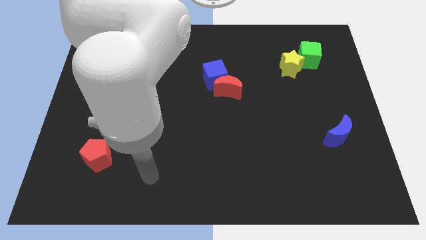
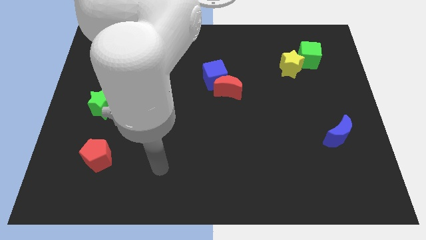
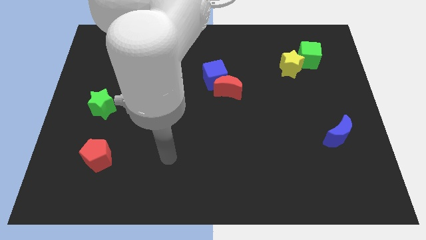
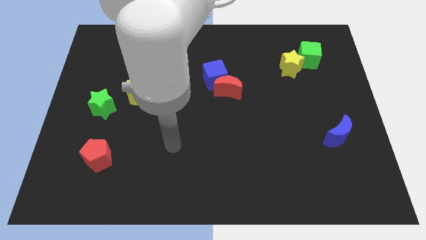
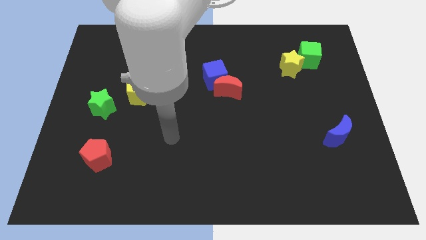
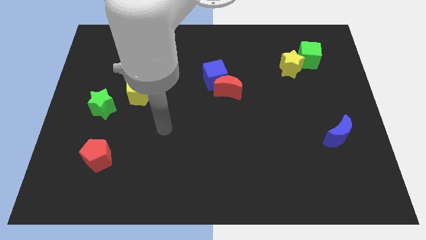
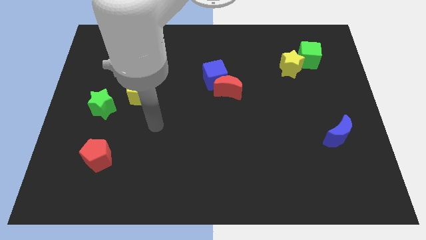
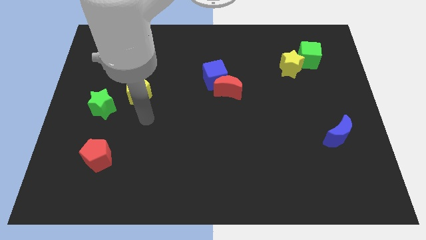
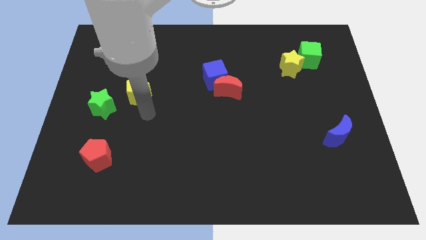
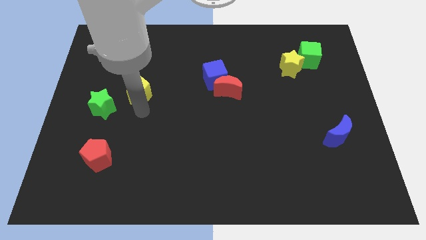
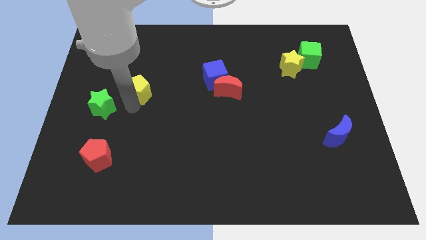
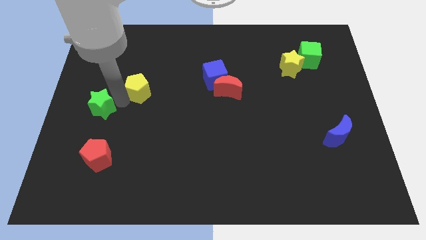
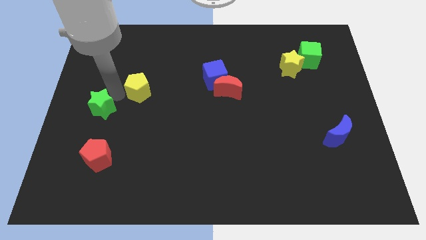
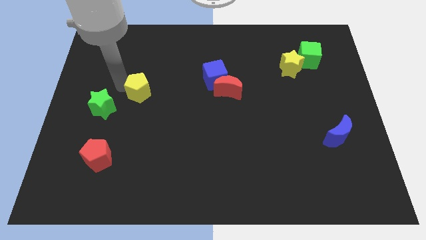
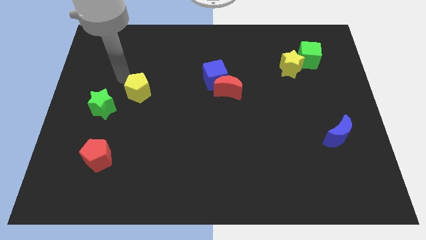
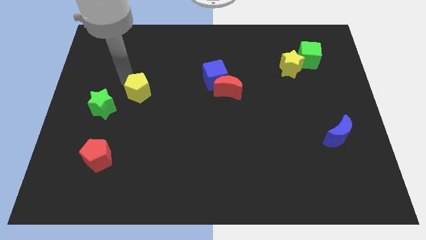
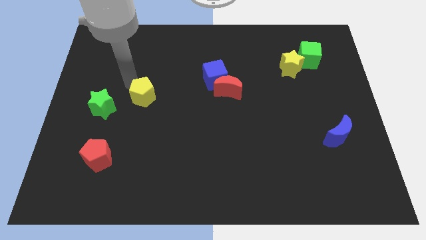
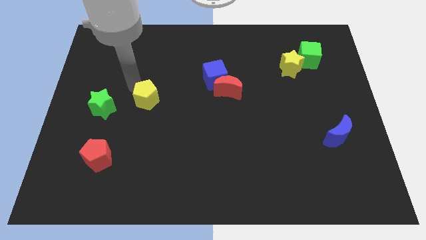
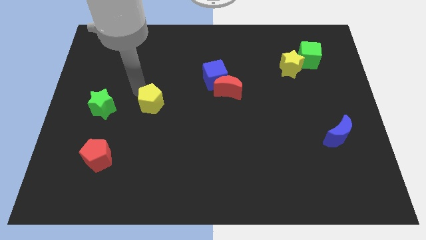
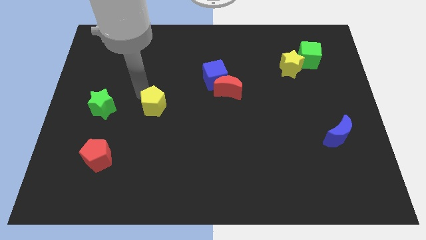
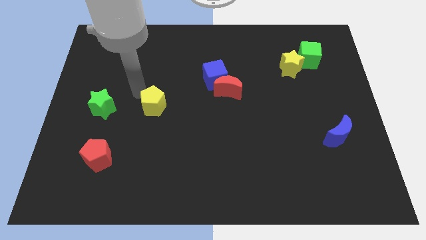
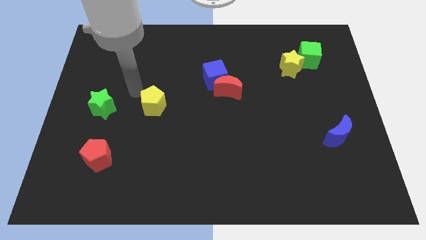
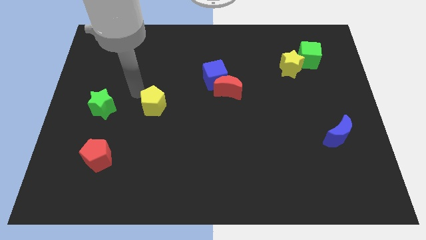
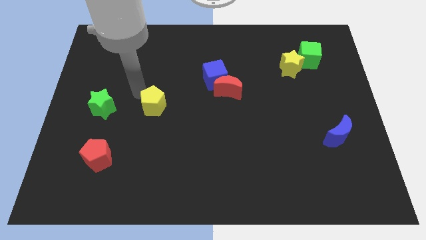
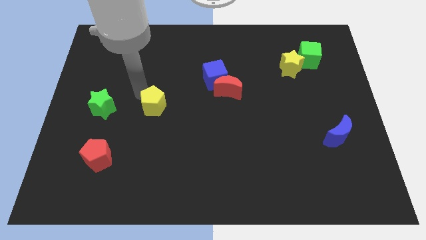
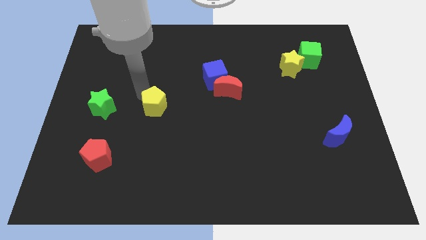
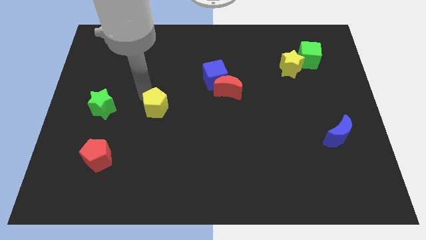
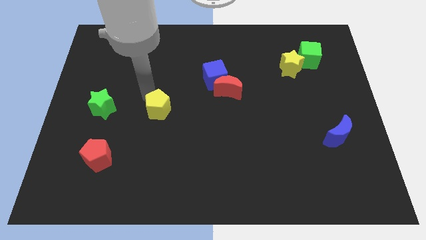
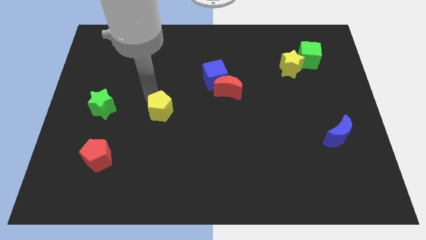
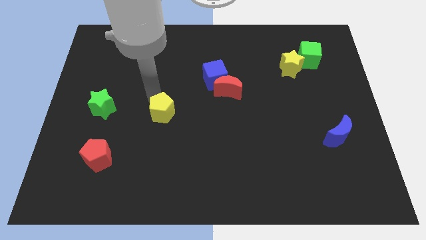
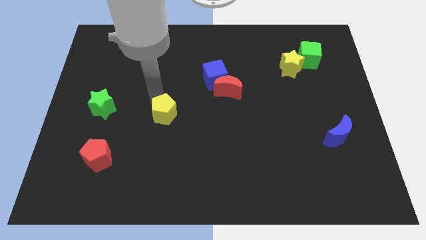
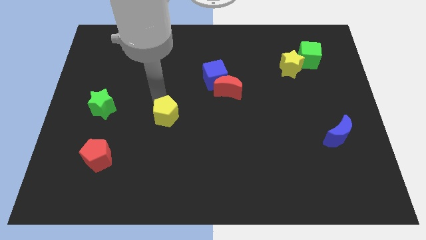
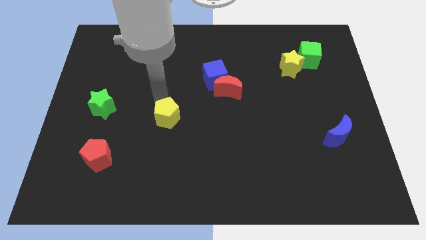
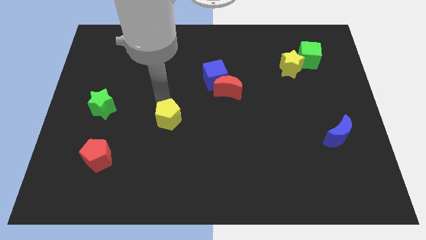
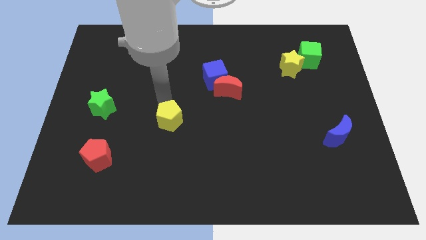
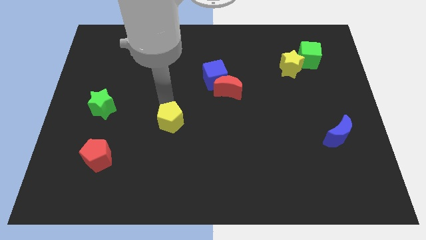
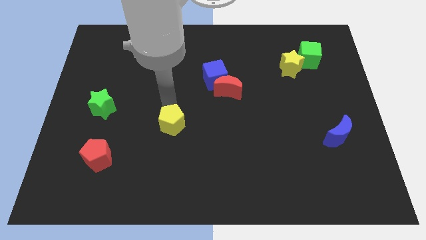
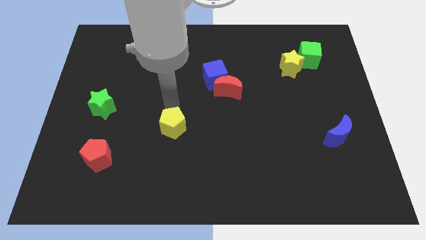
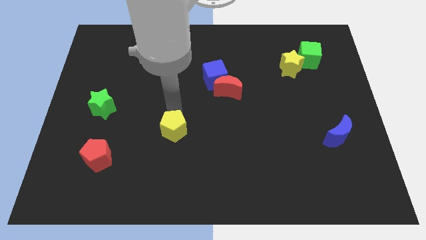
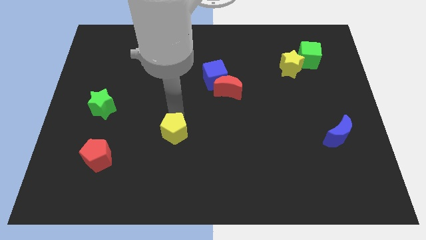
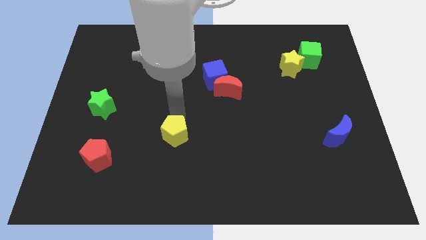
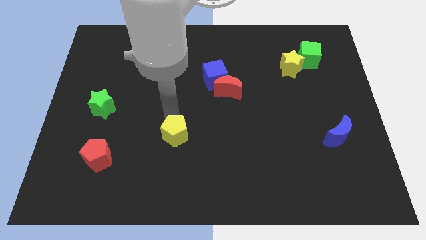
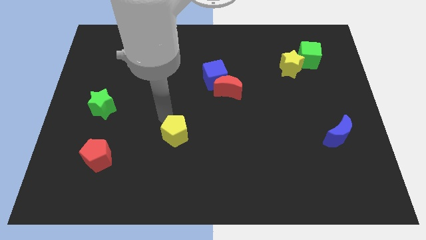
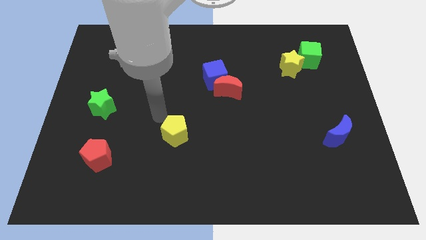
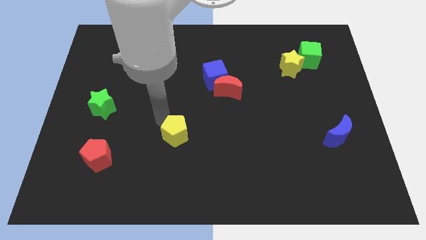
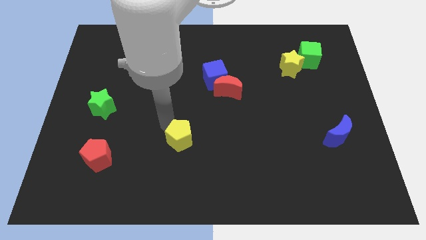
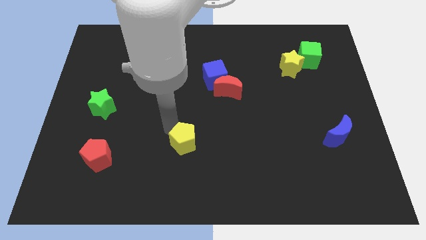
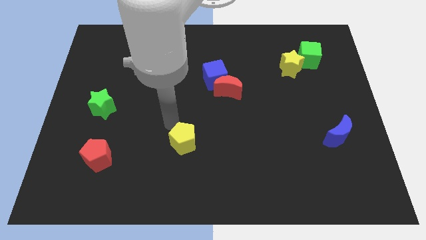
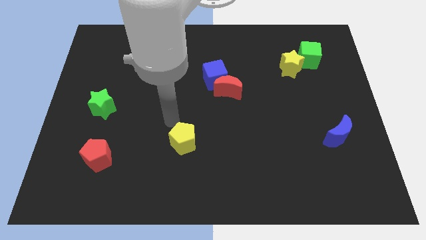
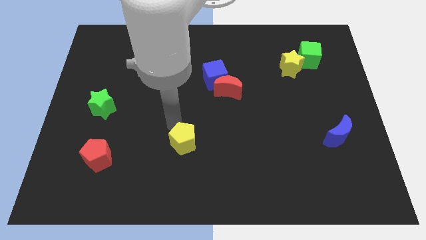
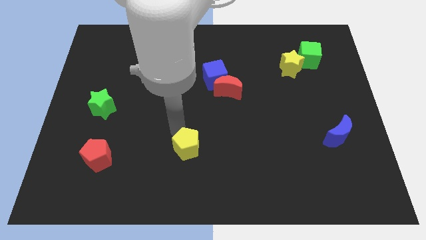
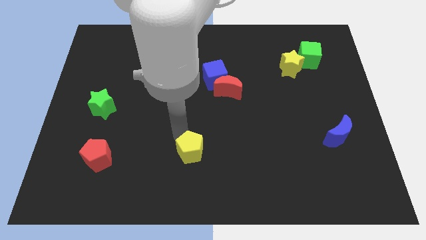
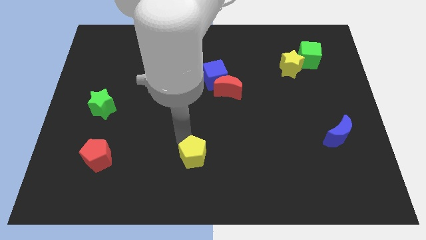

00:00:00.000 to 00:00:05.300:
slide the yellow pentagon to the bottom side
